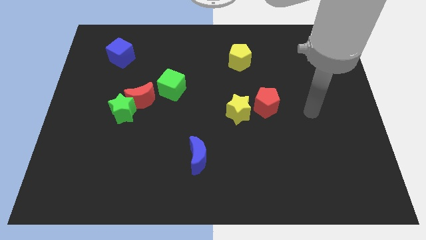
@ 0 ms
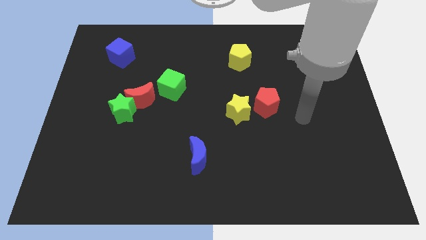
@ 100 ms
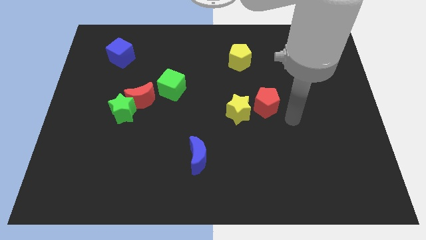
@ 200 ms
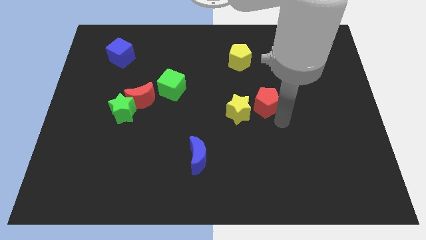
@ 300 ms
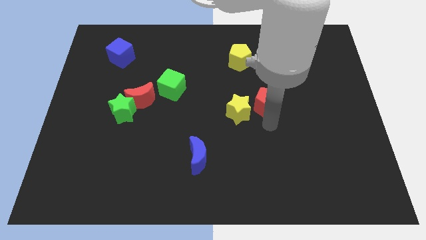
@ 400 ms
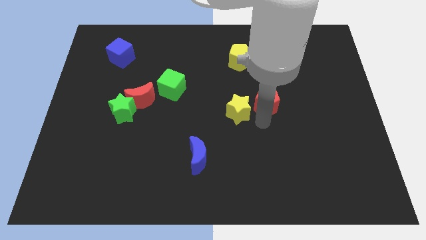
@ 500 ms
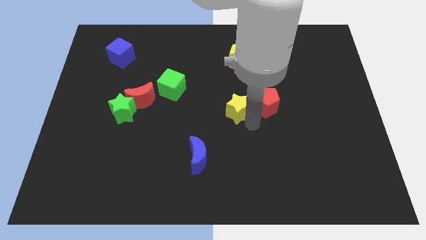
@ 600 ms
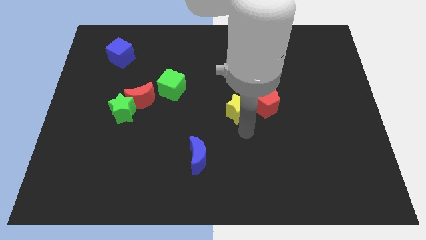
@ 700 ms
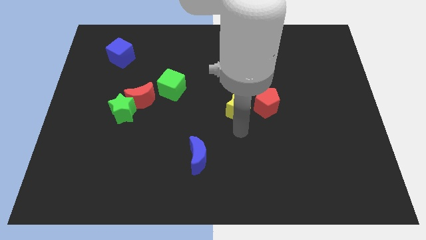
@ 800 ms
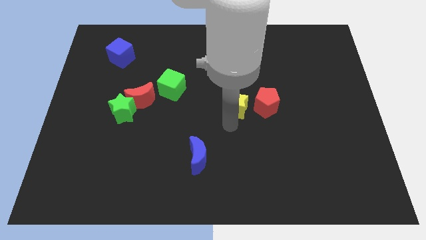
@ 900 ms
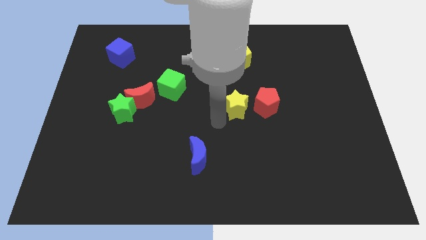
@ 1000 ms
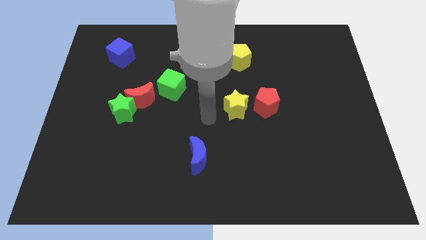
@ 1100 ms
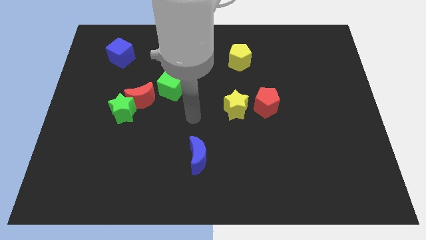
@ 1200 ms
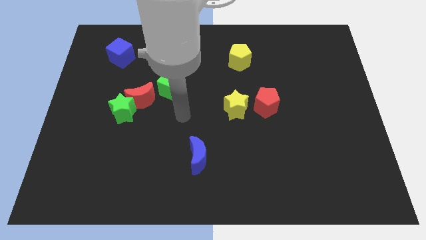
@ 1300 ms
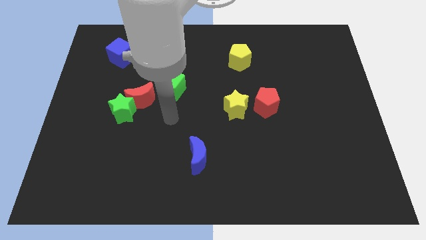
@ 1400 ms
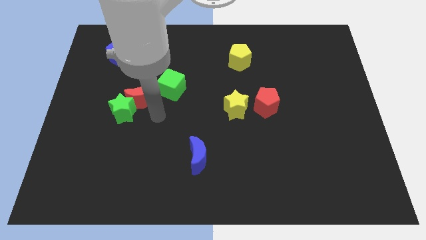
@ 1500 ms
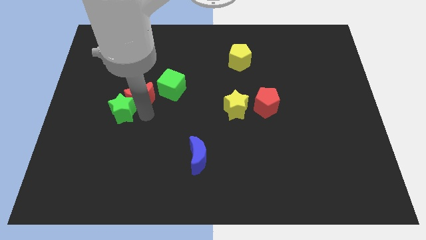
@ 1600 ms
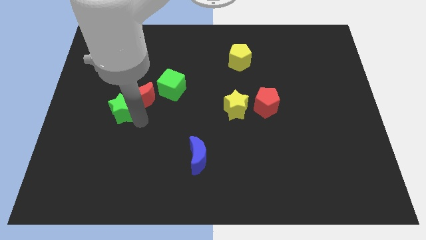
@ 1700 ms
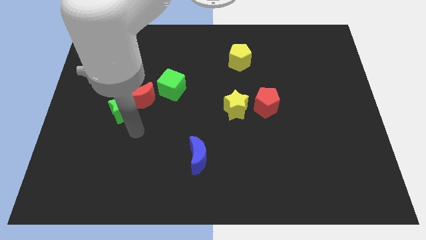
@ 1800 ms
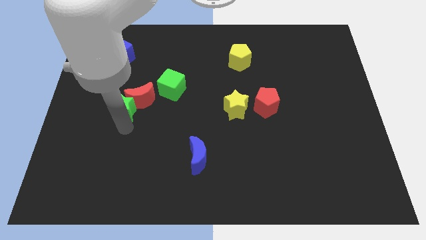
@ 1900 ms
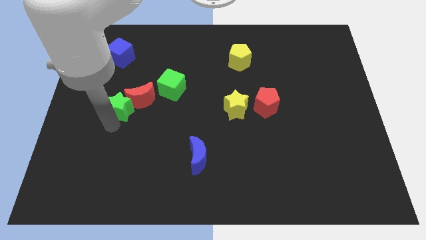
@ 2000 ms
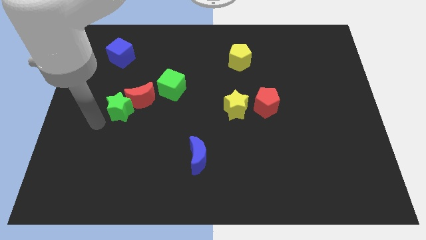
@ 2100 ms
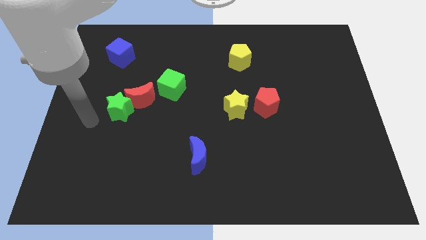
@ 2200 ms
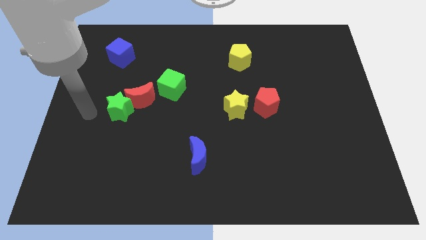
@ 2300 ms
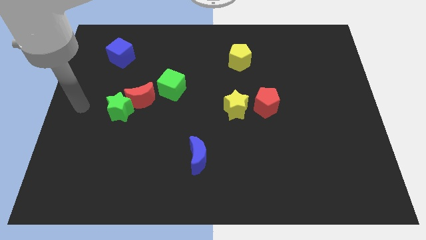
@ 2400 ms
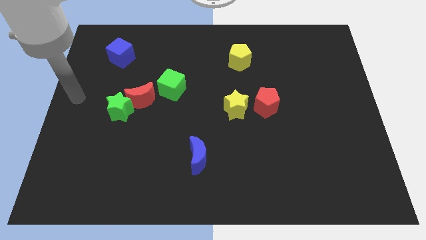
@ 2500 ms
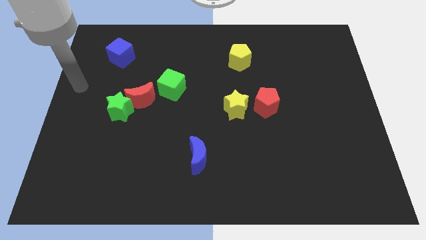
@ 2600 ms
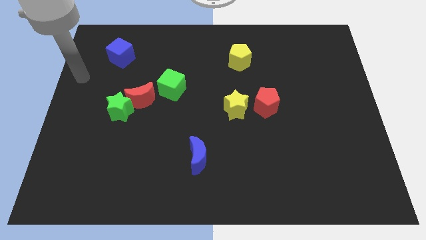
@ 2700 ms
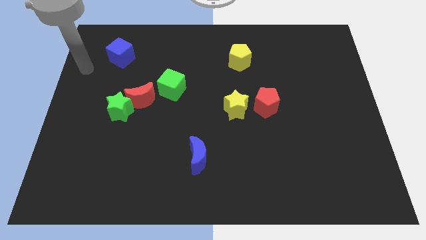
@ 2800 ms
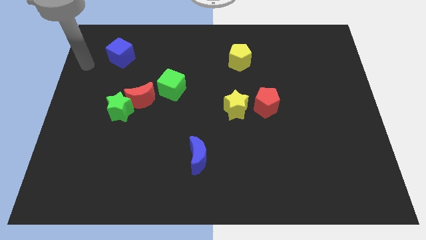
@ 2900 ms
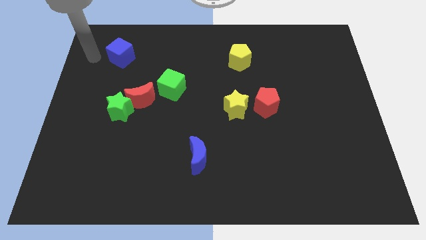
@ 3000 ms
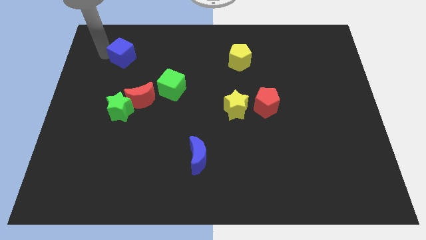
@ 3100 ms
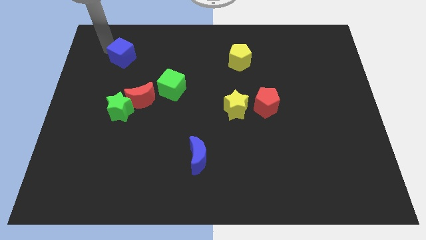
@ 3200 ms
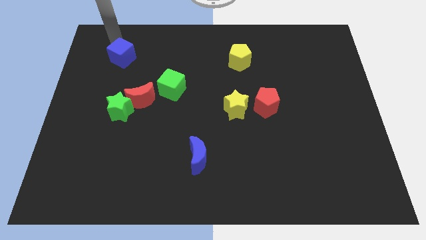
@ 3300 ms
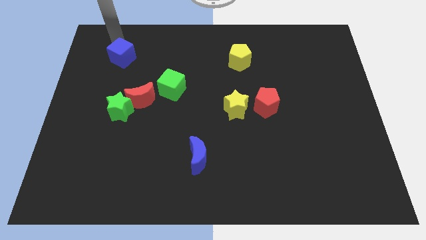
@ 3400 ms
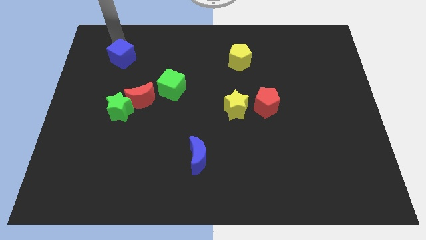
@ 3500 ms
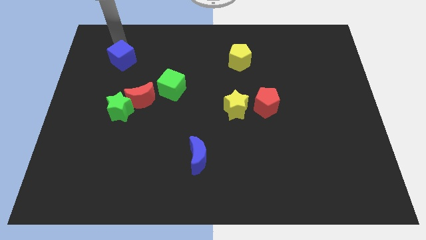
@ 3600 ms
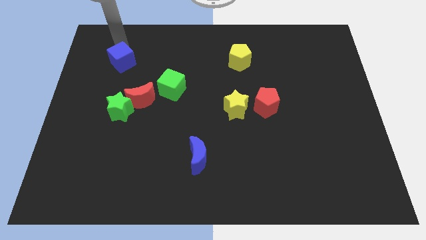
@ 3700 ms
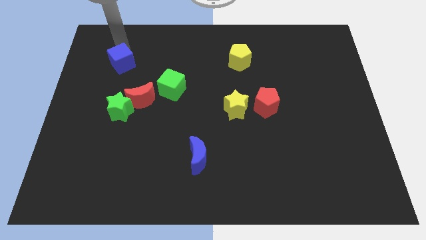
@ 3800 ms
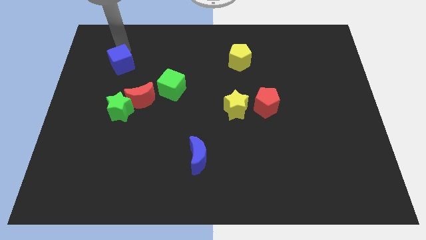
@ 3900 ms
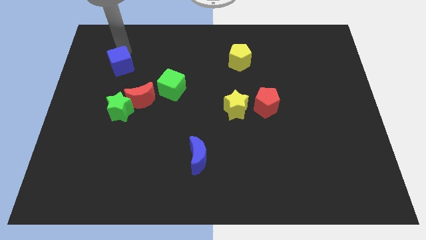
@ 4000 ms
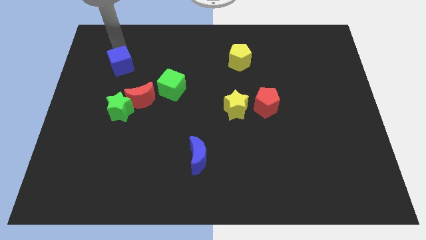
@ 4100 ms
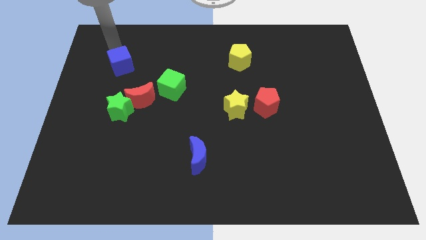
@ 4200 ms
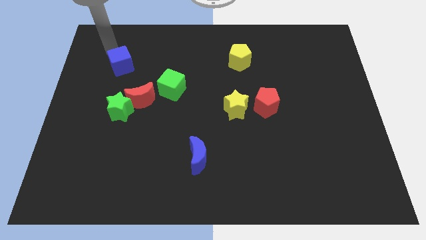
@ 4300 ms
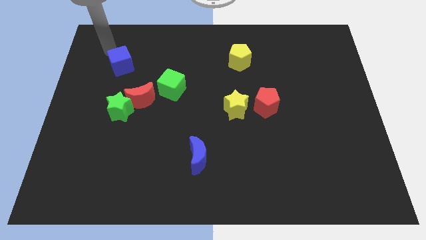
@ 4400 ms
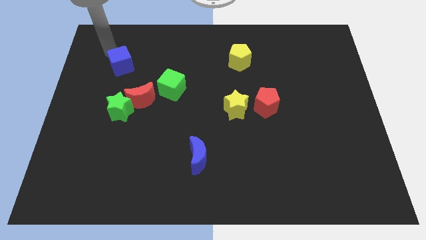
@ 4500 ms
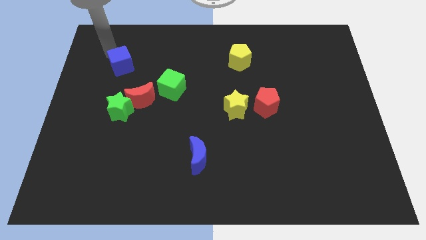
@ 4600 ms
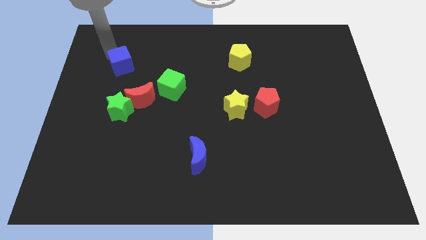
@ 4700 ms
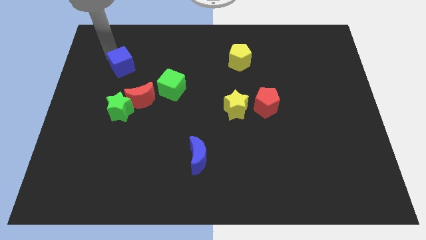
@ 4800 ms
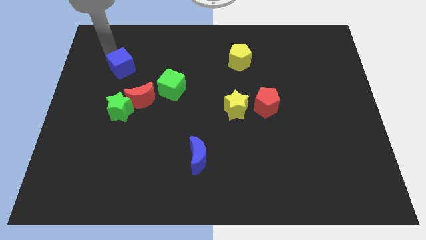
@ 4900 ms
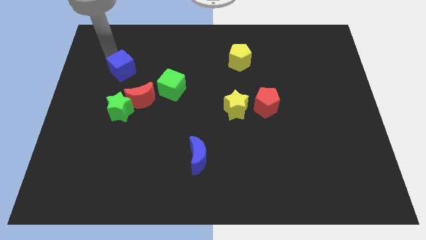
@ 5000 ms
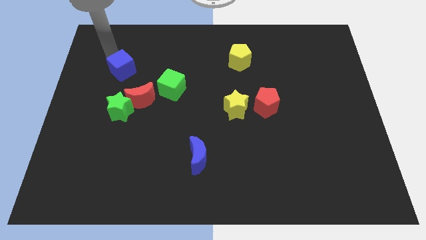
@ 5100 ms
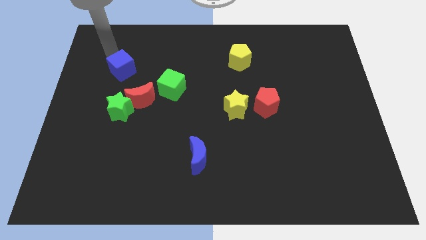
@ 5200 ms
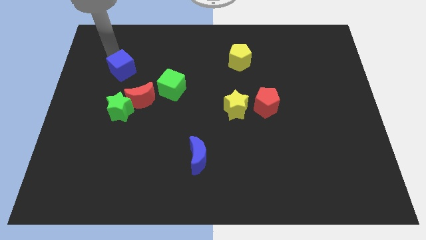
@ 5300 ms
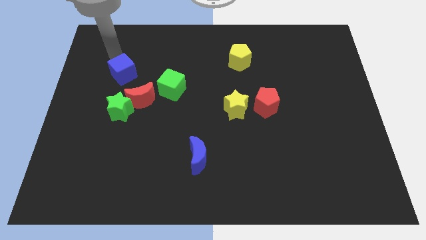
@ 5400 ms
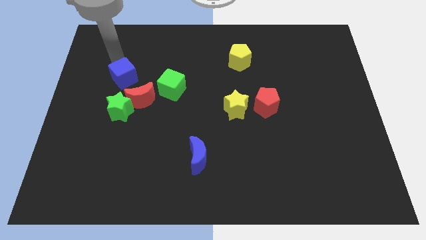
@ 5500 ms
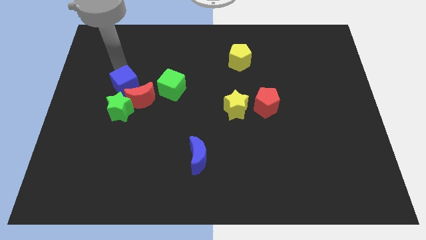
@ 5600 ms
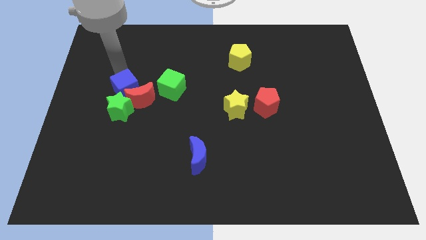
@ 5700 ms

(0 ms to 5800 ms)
move the blue cube next to the red moon

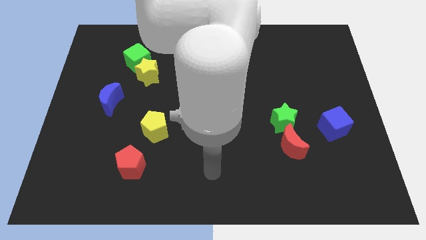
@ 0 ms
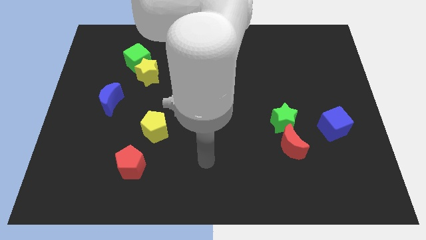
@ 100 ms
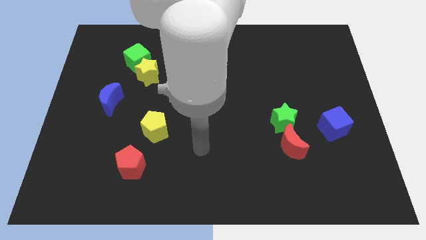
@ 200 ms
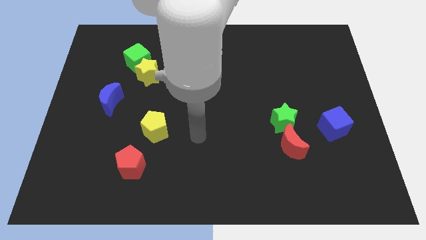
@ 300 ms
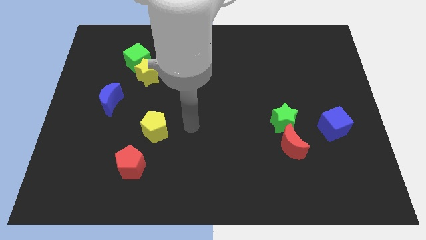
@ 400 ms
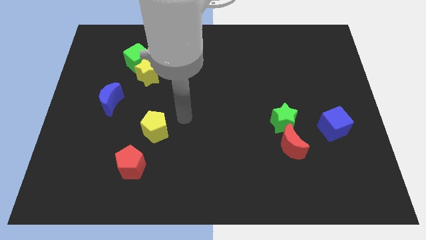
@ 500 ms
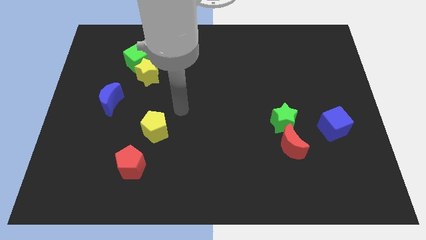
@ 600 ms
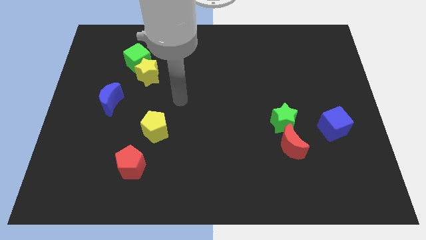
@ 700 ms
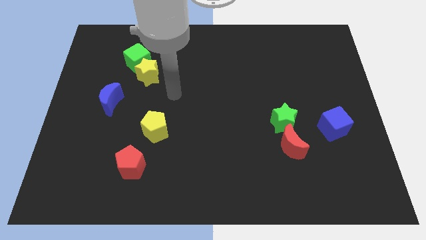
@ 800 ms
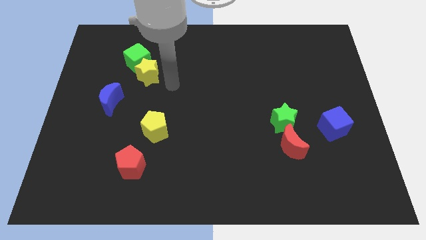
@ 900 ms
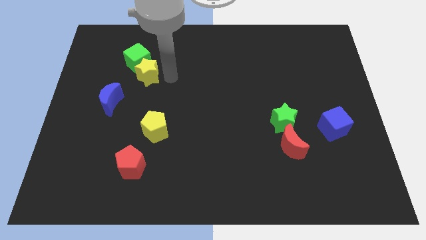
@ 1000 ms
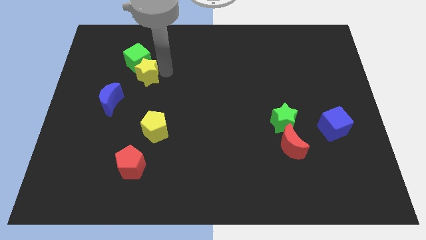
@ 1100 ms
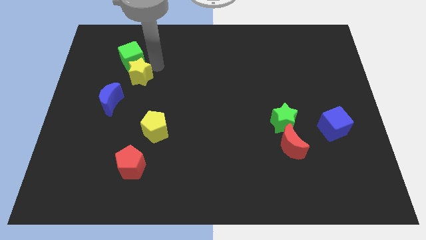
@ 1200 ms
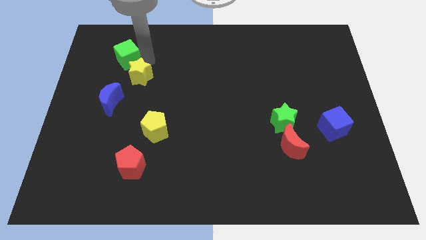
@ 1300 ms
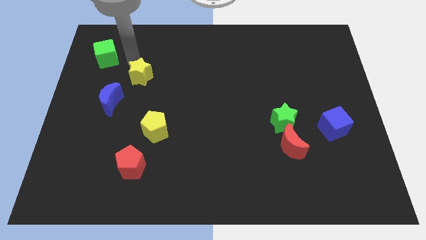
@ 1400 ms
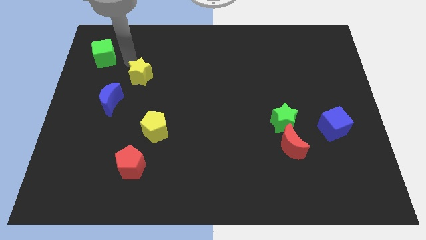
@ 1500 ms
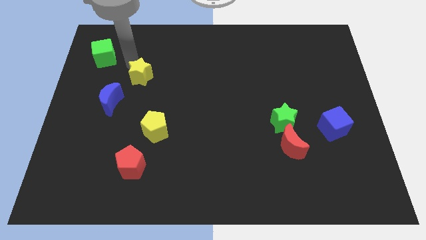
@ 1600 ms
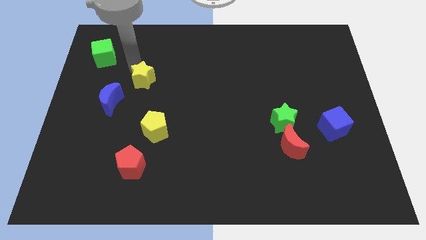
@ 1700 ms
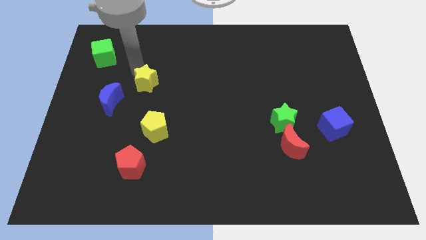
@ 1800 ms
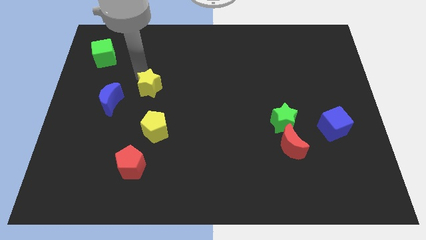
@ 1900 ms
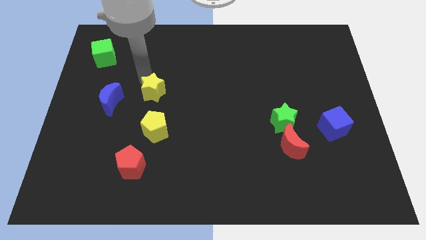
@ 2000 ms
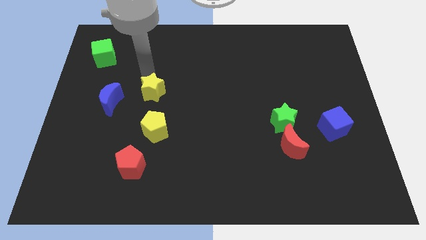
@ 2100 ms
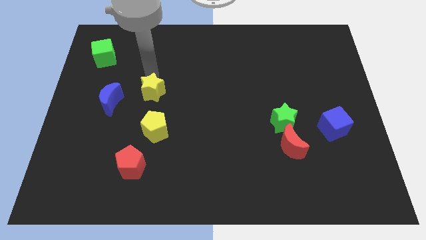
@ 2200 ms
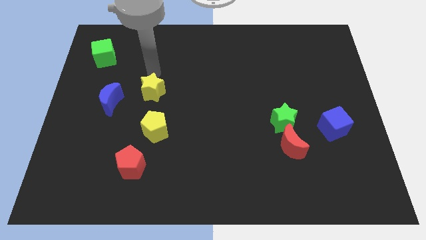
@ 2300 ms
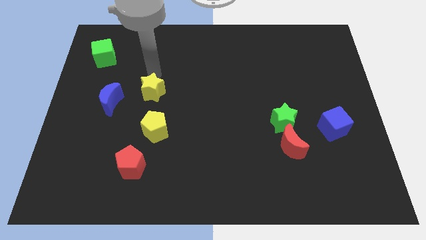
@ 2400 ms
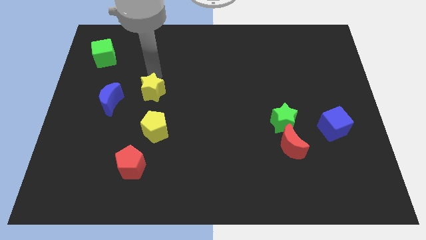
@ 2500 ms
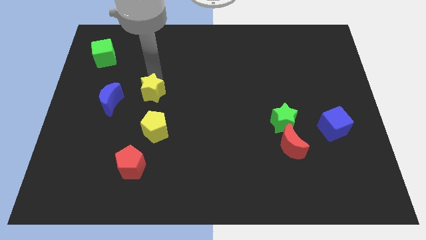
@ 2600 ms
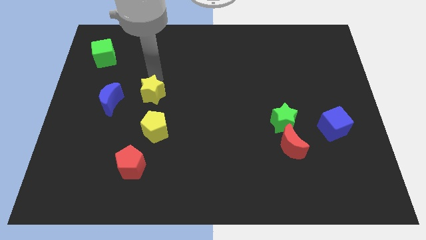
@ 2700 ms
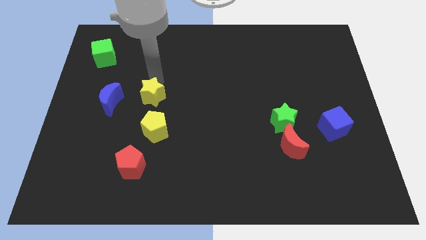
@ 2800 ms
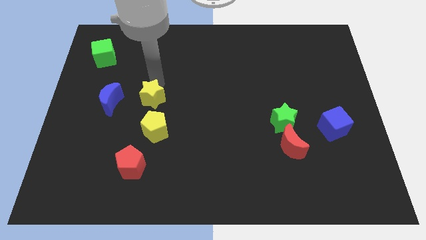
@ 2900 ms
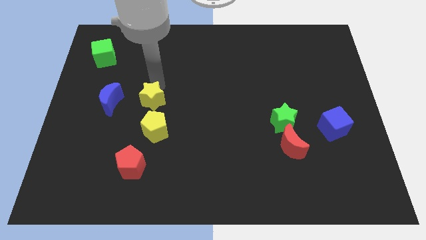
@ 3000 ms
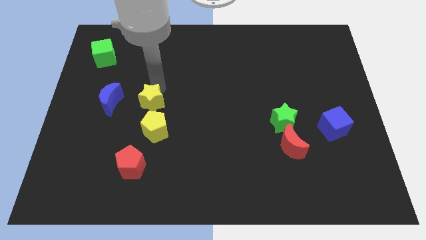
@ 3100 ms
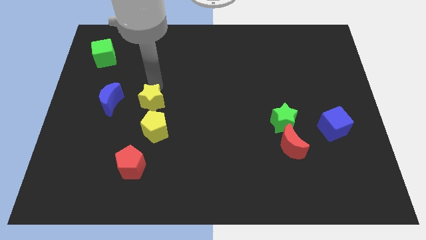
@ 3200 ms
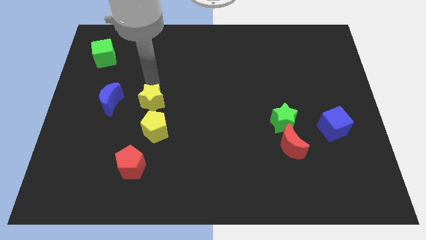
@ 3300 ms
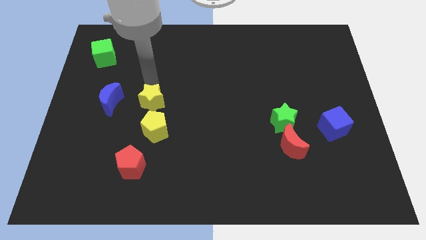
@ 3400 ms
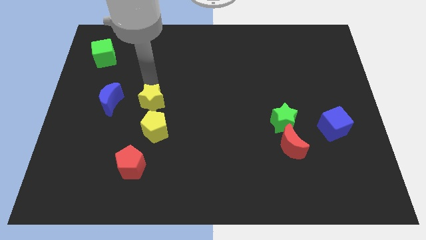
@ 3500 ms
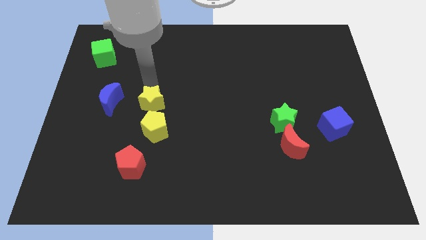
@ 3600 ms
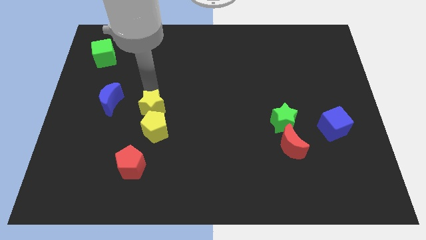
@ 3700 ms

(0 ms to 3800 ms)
move the yellow star next to the yellow pentagon
